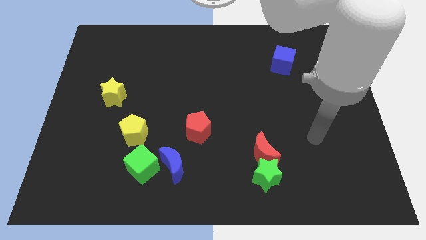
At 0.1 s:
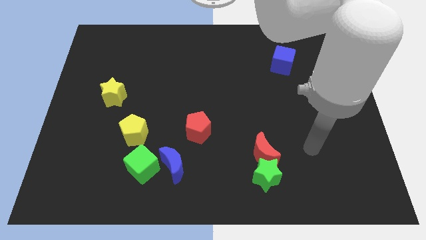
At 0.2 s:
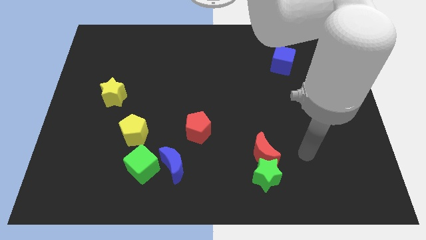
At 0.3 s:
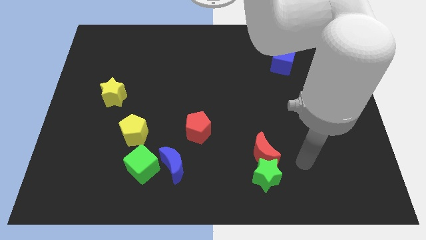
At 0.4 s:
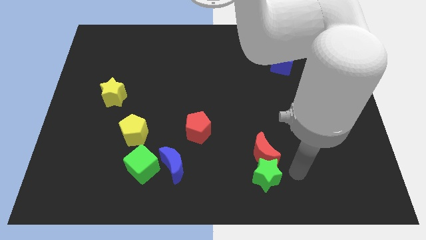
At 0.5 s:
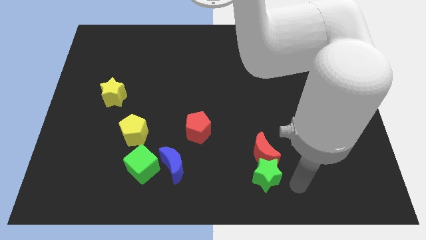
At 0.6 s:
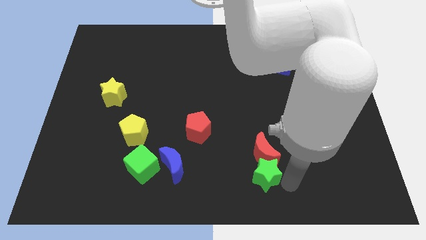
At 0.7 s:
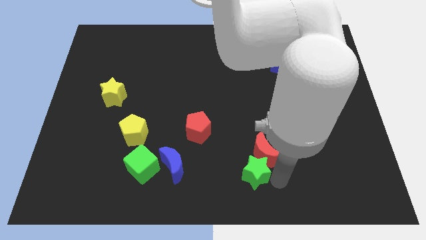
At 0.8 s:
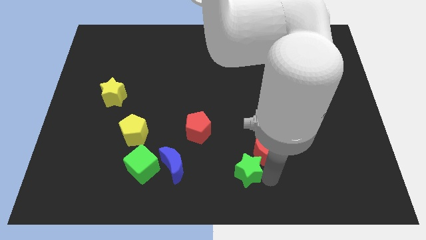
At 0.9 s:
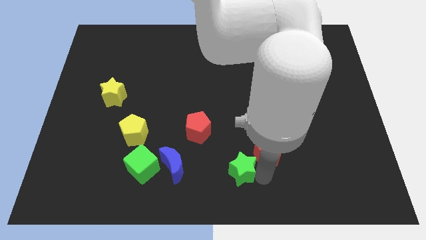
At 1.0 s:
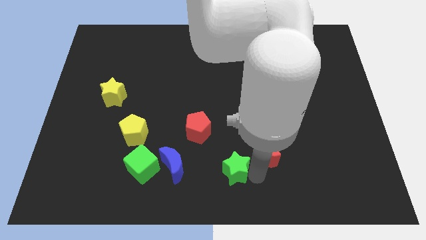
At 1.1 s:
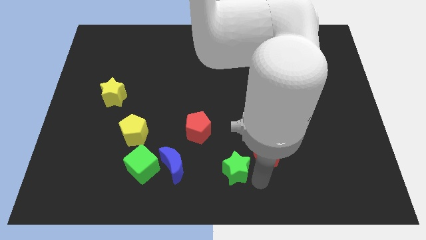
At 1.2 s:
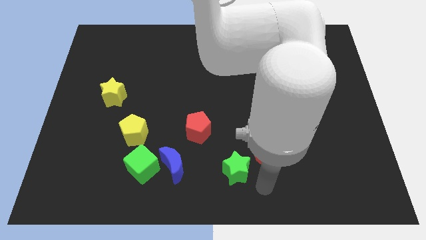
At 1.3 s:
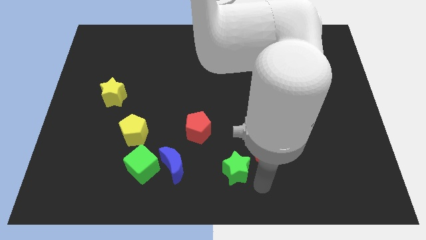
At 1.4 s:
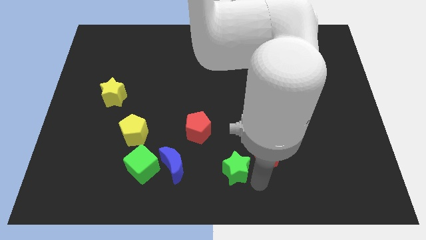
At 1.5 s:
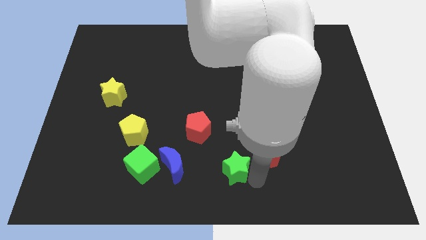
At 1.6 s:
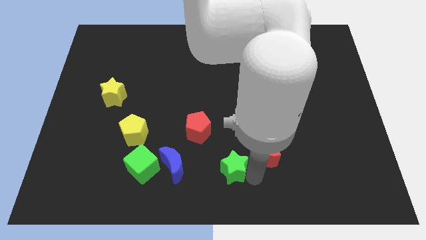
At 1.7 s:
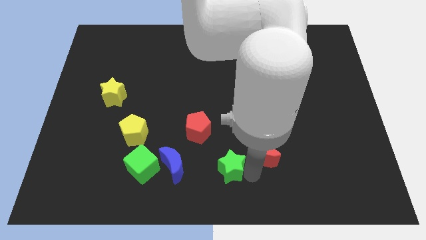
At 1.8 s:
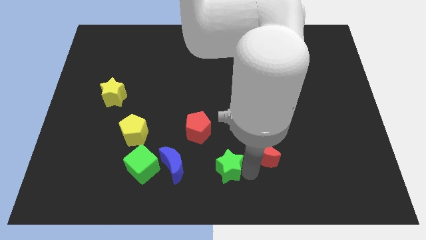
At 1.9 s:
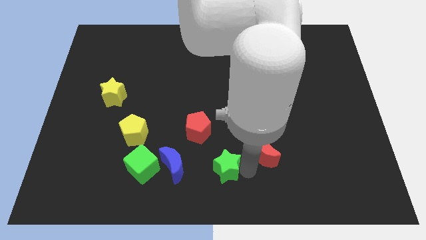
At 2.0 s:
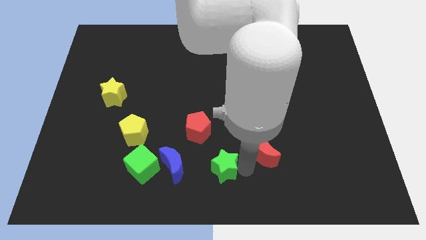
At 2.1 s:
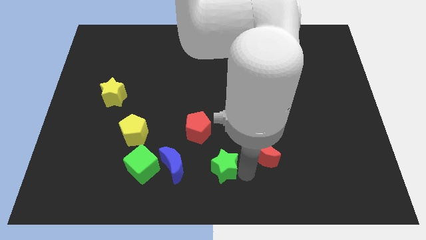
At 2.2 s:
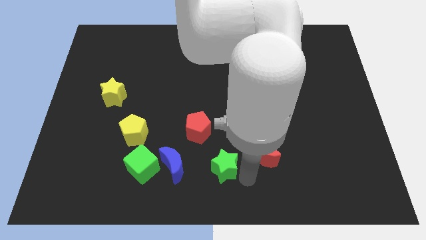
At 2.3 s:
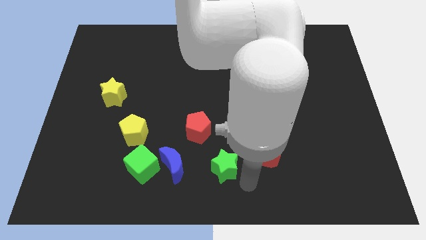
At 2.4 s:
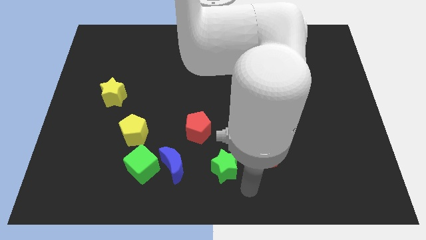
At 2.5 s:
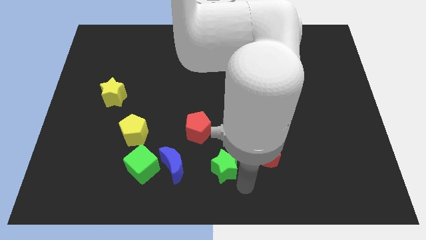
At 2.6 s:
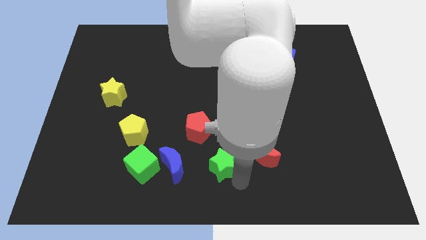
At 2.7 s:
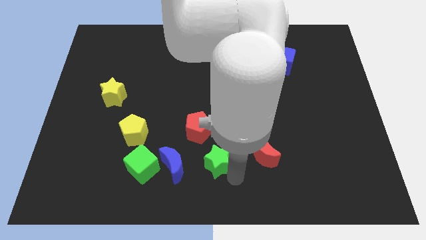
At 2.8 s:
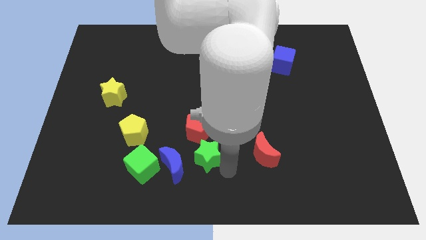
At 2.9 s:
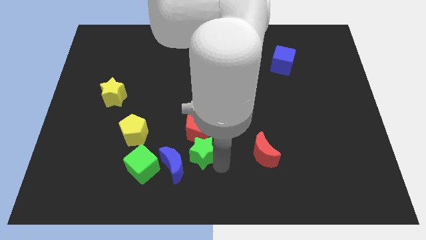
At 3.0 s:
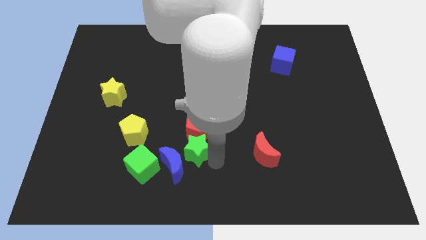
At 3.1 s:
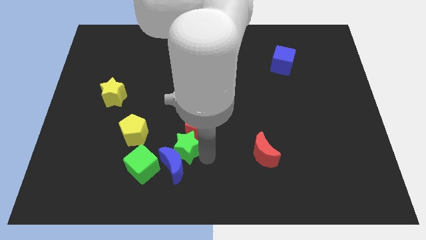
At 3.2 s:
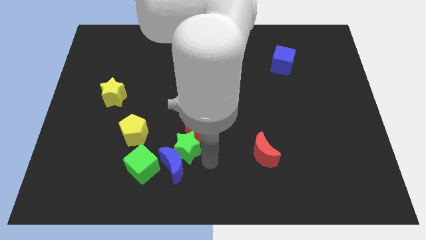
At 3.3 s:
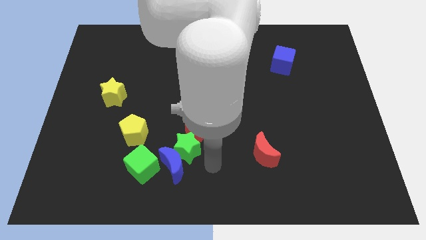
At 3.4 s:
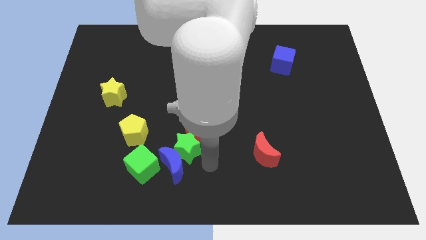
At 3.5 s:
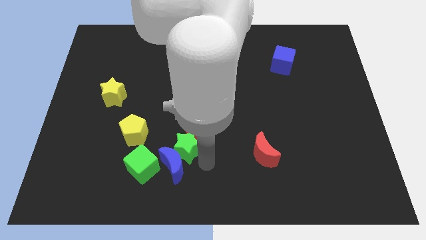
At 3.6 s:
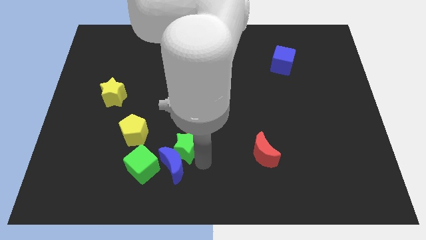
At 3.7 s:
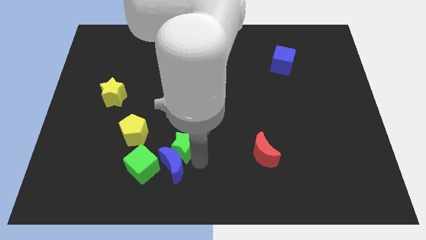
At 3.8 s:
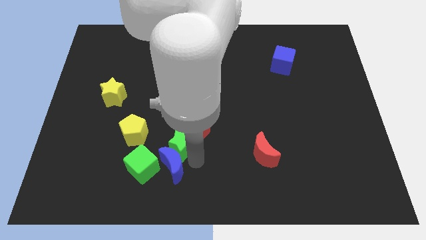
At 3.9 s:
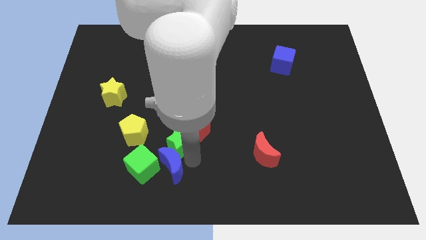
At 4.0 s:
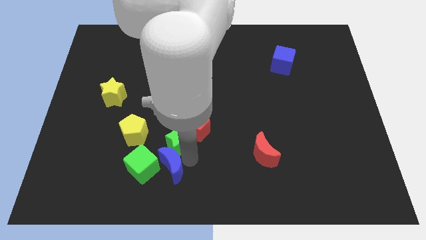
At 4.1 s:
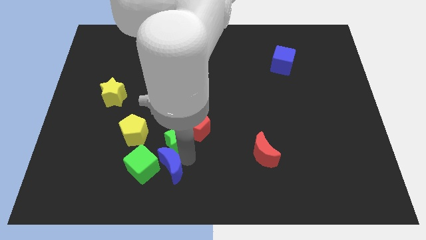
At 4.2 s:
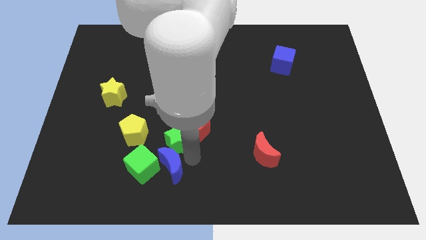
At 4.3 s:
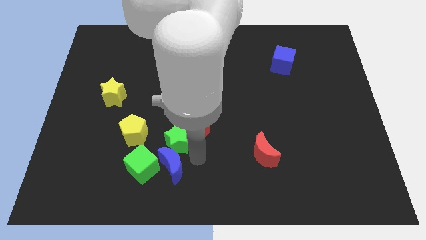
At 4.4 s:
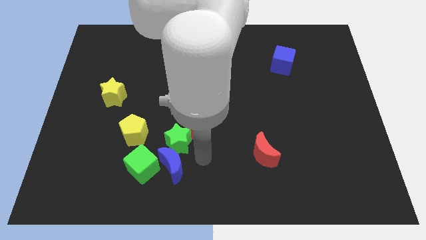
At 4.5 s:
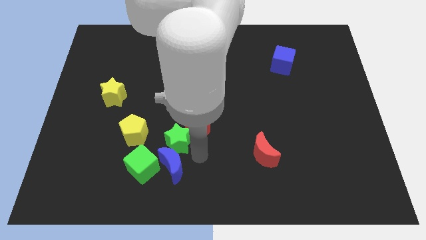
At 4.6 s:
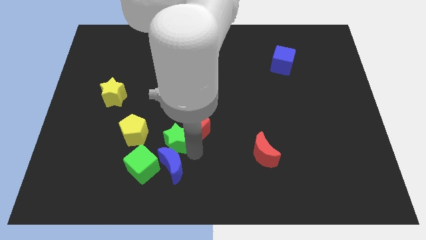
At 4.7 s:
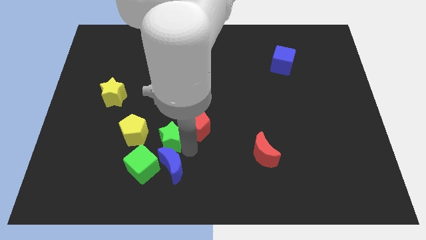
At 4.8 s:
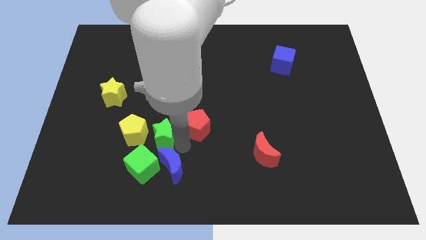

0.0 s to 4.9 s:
put the green star to the top of the green cube

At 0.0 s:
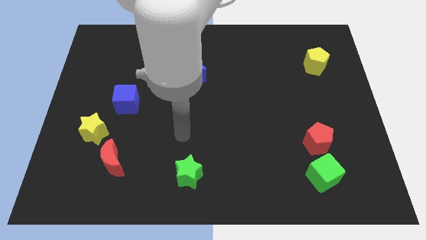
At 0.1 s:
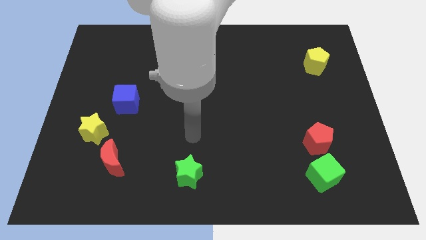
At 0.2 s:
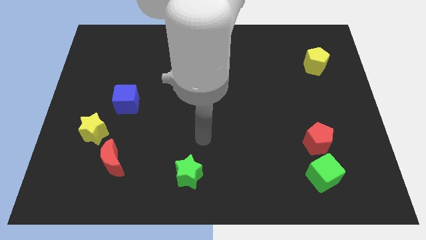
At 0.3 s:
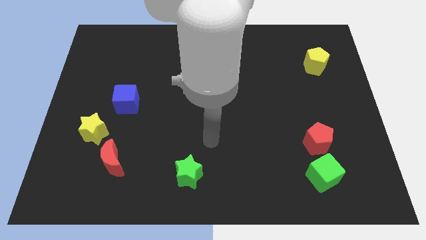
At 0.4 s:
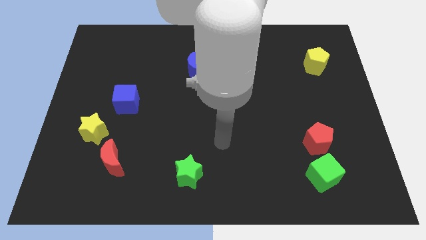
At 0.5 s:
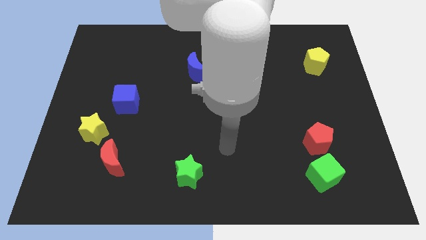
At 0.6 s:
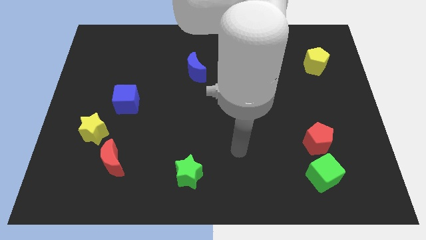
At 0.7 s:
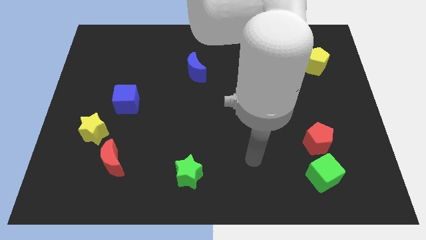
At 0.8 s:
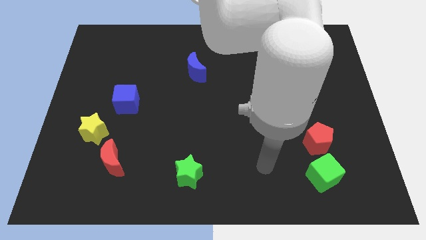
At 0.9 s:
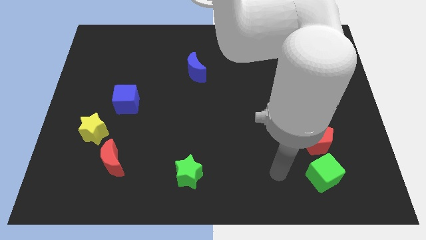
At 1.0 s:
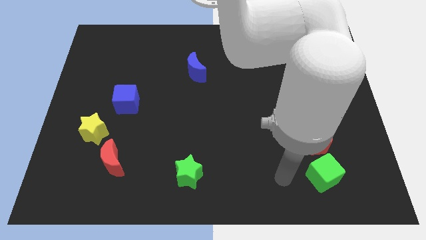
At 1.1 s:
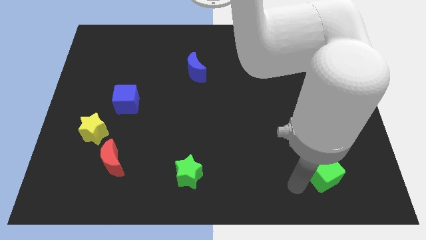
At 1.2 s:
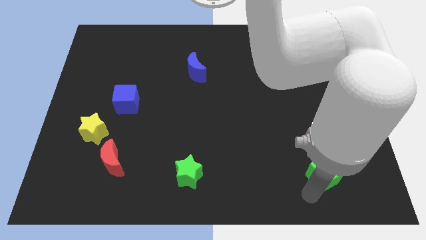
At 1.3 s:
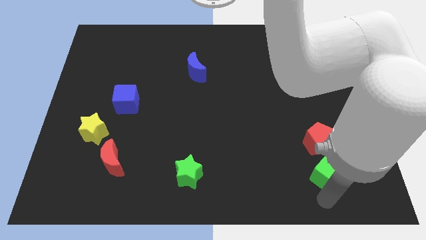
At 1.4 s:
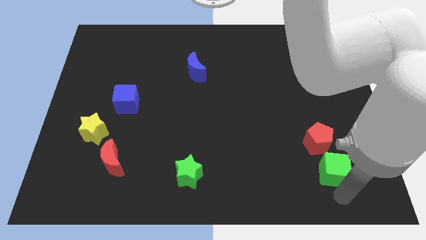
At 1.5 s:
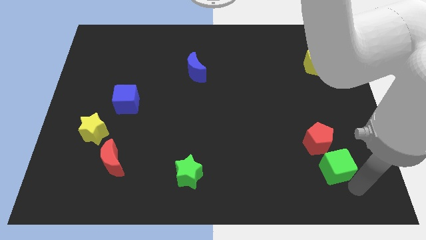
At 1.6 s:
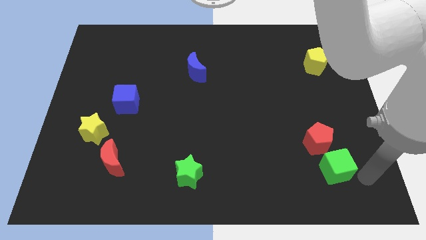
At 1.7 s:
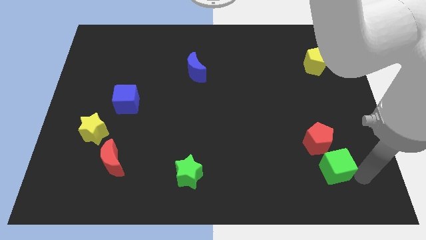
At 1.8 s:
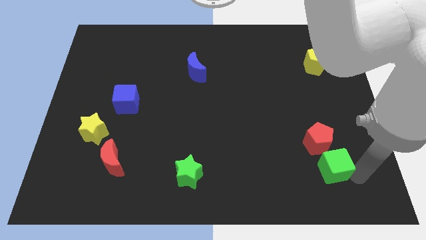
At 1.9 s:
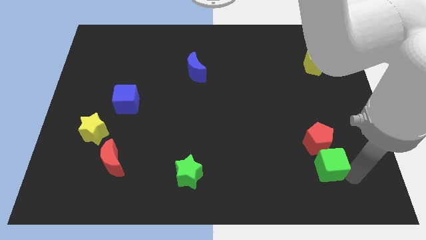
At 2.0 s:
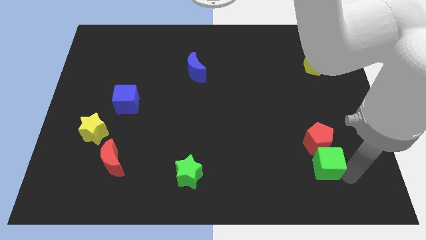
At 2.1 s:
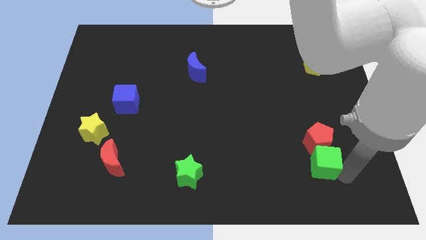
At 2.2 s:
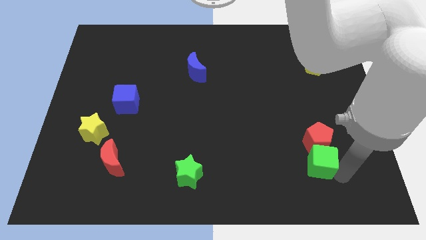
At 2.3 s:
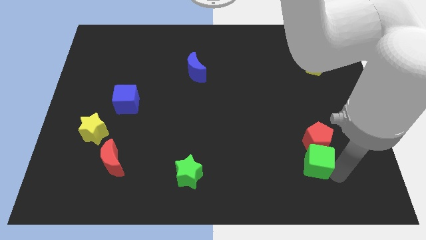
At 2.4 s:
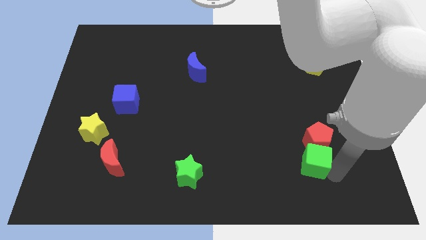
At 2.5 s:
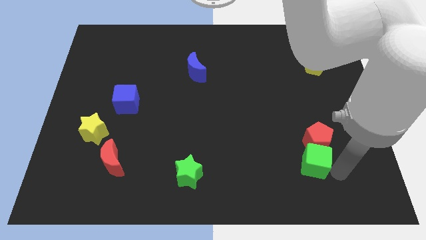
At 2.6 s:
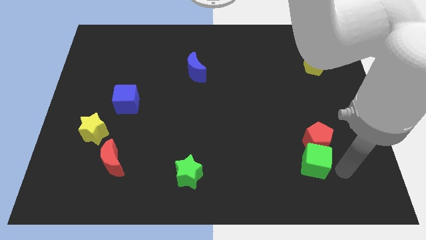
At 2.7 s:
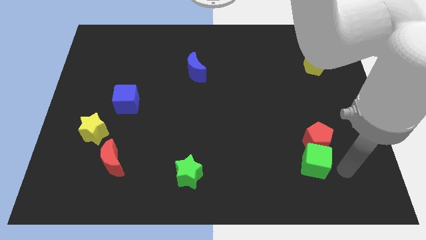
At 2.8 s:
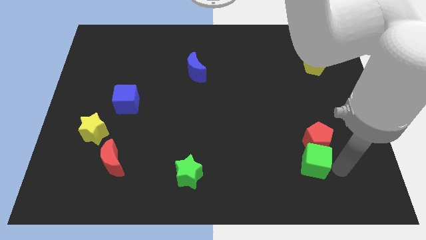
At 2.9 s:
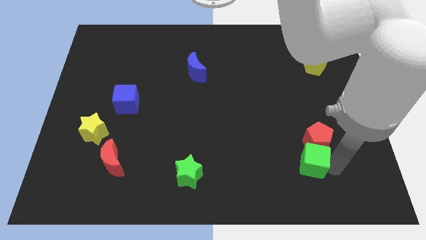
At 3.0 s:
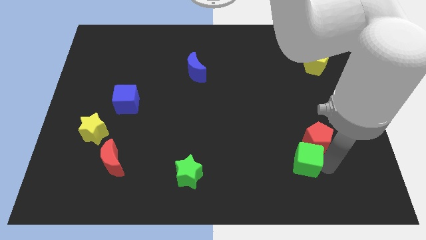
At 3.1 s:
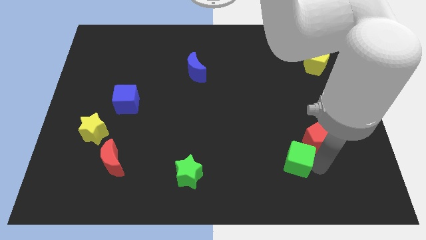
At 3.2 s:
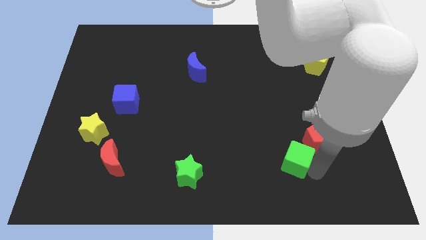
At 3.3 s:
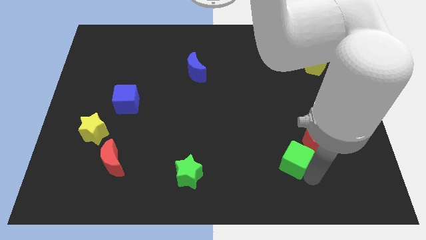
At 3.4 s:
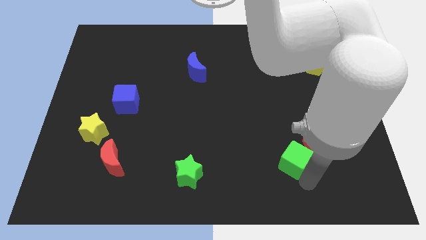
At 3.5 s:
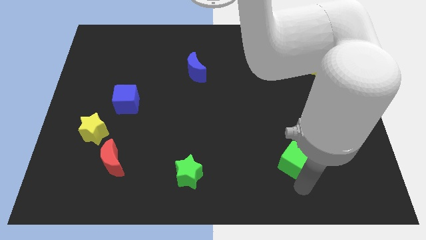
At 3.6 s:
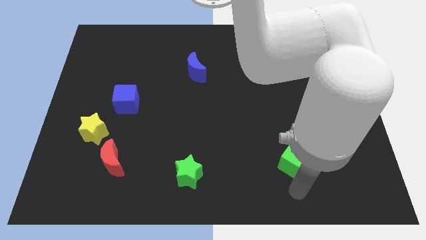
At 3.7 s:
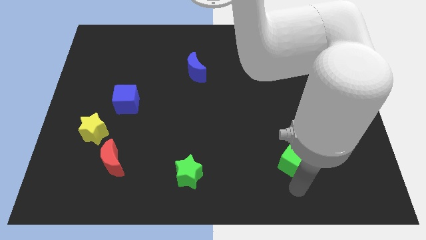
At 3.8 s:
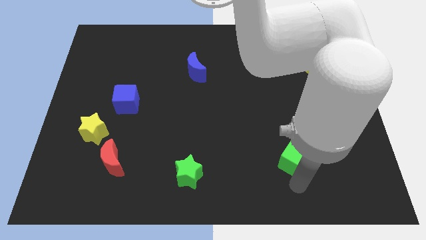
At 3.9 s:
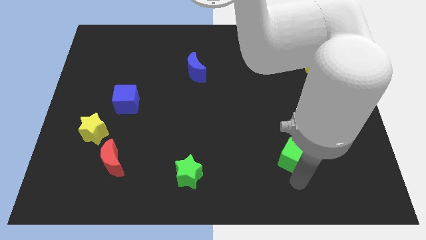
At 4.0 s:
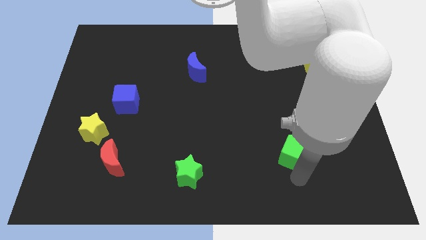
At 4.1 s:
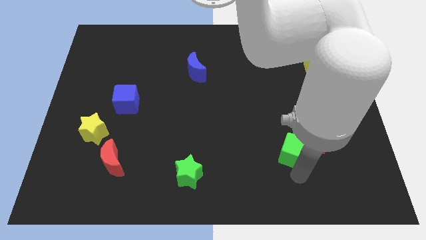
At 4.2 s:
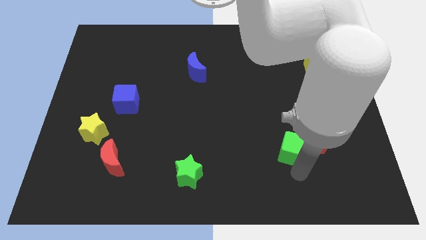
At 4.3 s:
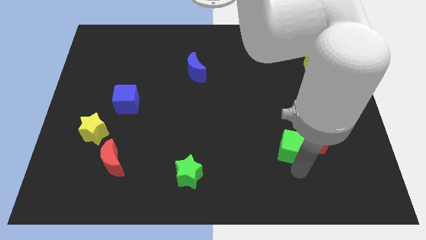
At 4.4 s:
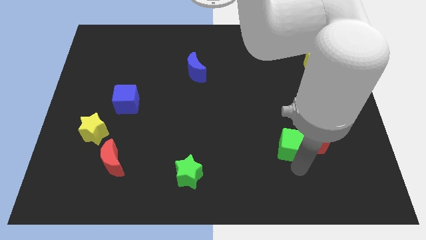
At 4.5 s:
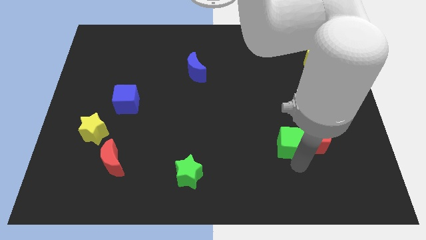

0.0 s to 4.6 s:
push the green cube to the top left side of the red pentagon
